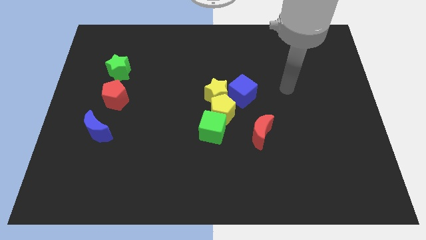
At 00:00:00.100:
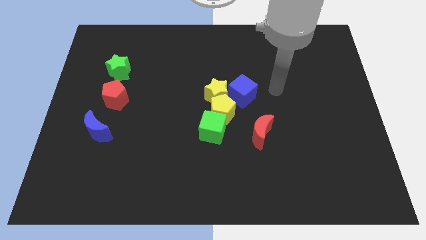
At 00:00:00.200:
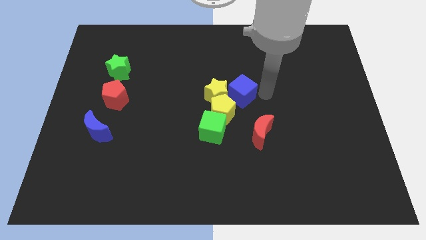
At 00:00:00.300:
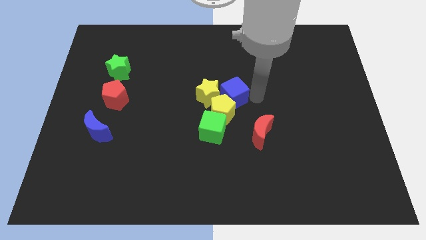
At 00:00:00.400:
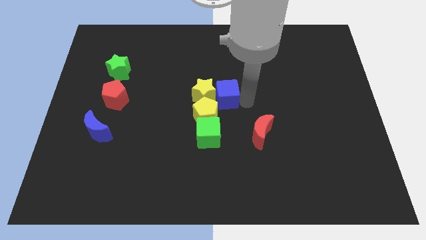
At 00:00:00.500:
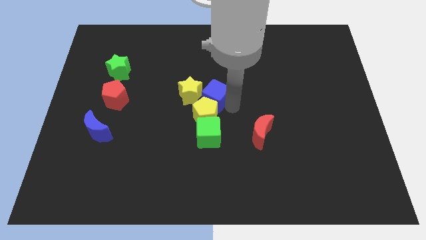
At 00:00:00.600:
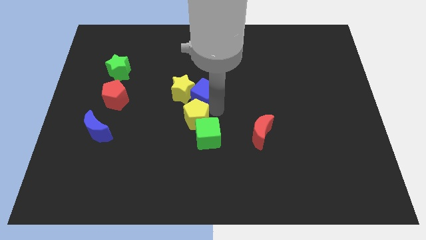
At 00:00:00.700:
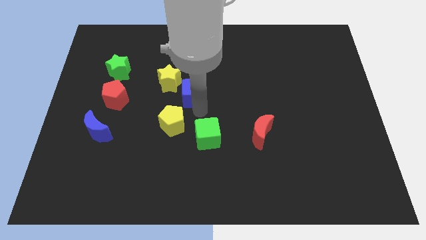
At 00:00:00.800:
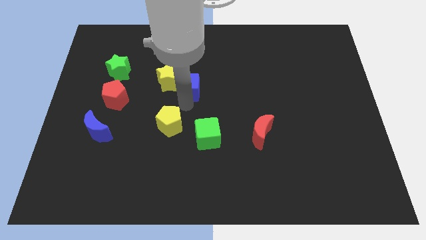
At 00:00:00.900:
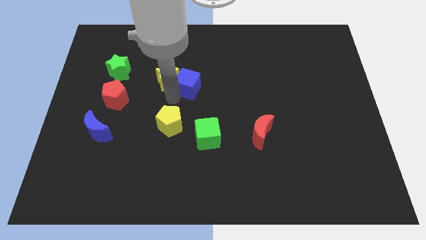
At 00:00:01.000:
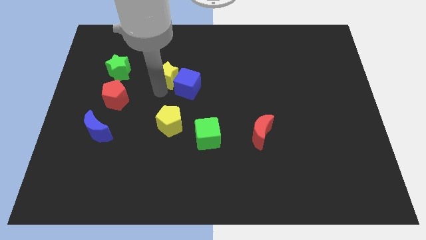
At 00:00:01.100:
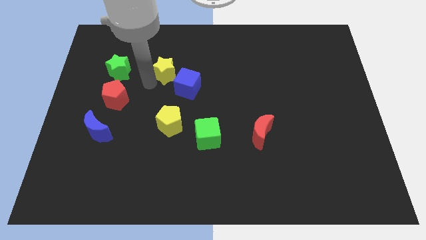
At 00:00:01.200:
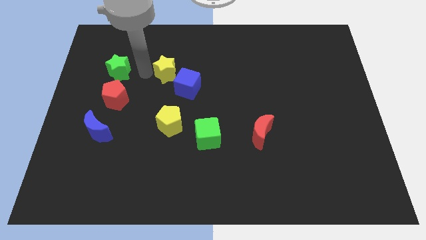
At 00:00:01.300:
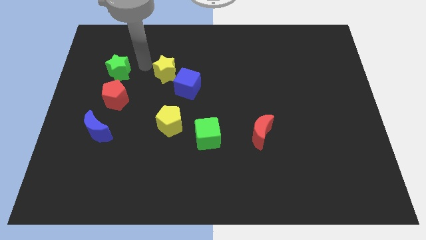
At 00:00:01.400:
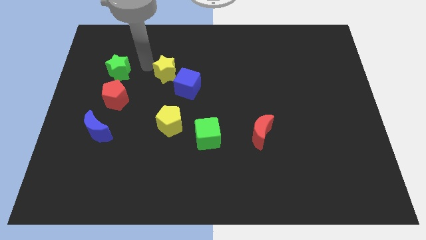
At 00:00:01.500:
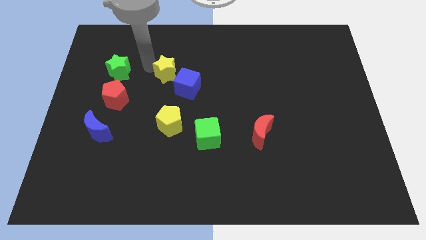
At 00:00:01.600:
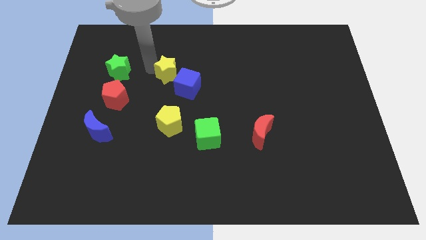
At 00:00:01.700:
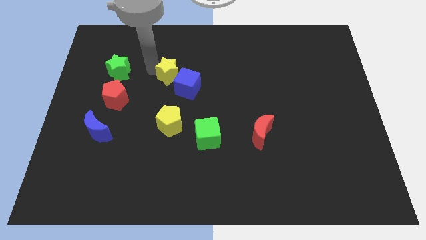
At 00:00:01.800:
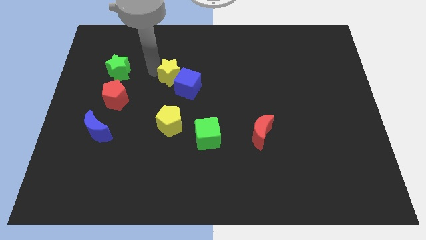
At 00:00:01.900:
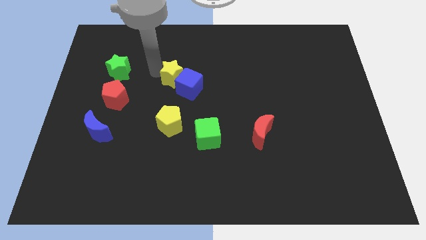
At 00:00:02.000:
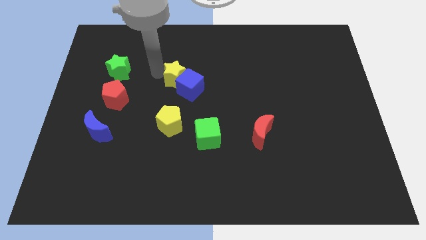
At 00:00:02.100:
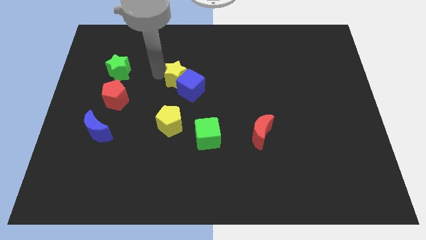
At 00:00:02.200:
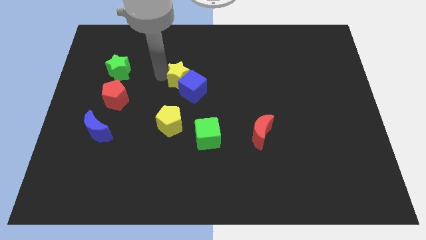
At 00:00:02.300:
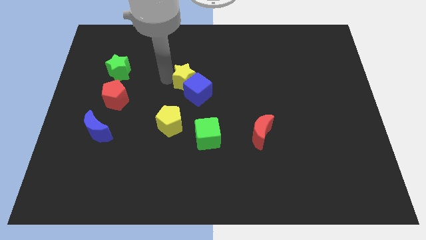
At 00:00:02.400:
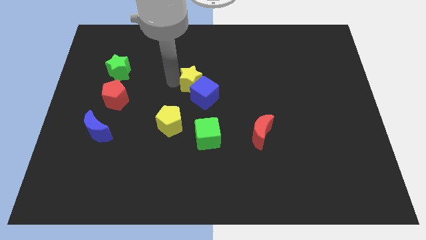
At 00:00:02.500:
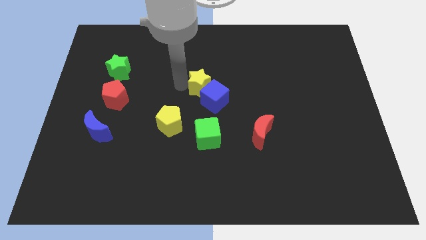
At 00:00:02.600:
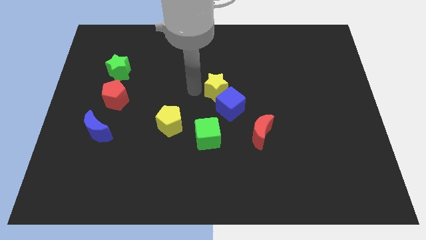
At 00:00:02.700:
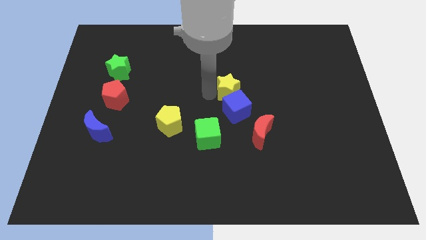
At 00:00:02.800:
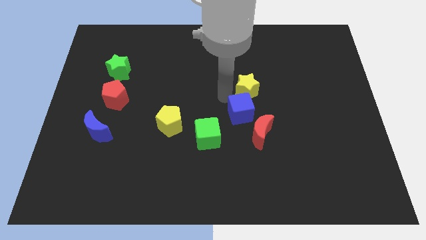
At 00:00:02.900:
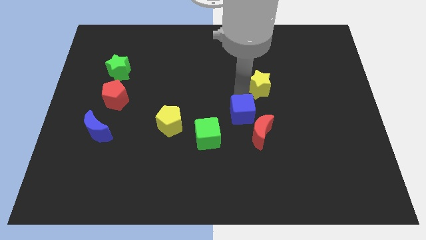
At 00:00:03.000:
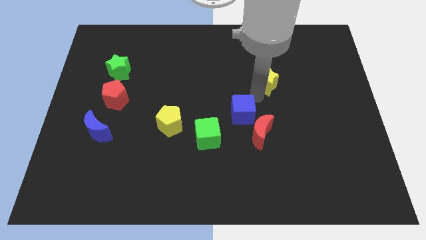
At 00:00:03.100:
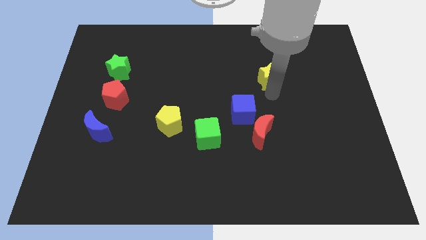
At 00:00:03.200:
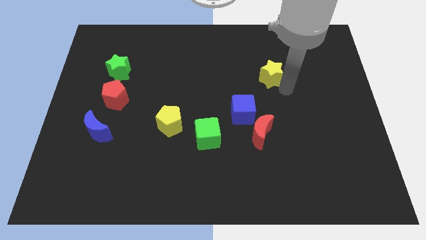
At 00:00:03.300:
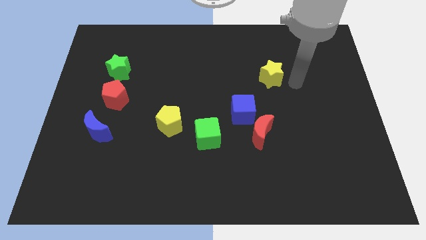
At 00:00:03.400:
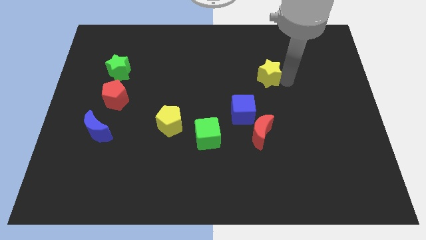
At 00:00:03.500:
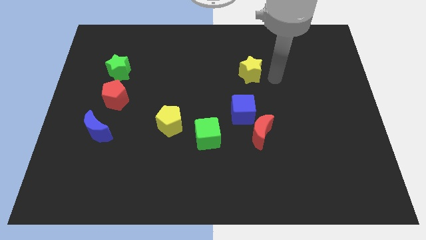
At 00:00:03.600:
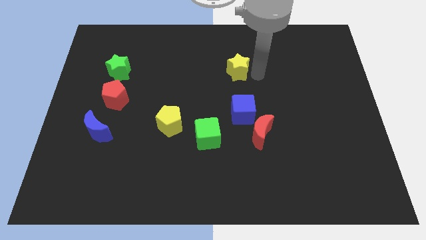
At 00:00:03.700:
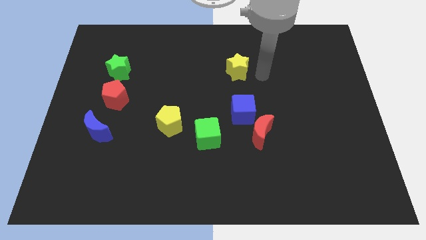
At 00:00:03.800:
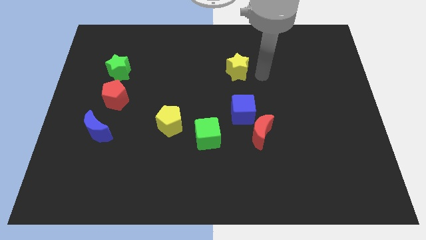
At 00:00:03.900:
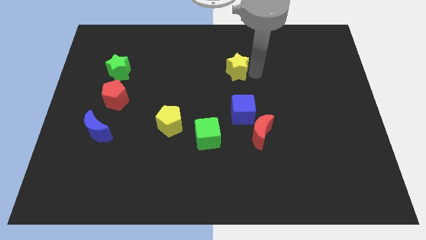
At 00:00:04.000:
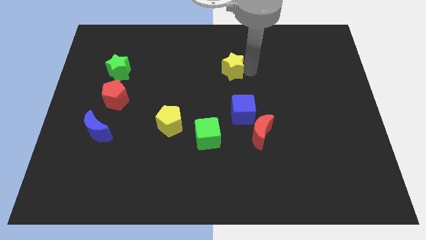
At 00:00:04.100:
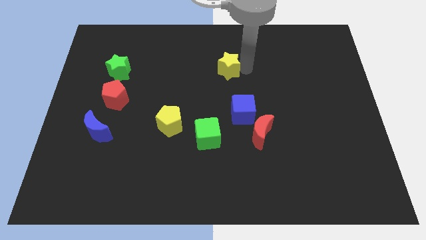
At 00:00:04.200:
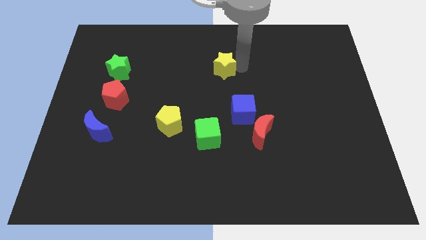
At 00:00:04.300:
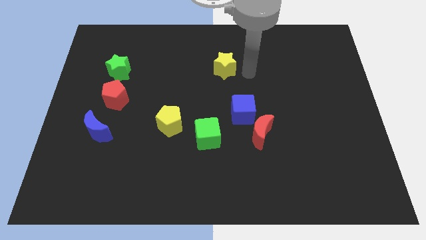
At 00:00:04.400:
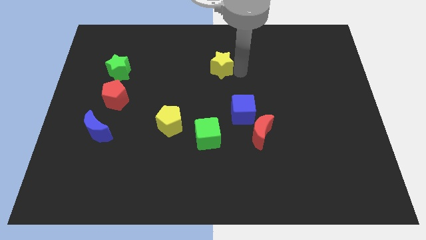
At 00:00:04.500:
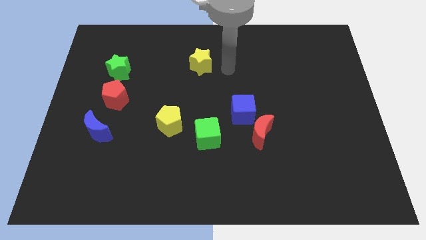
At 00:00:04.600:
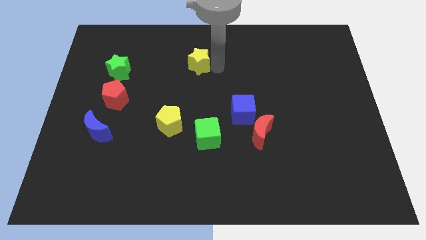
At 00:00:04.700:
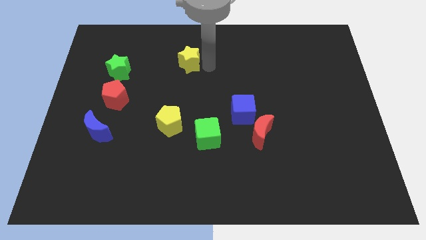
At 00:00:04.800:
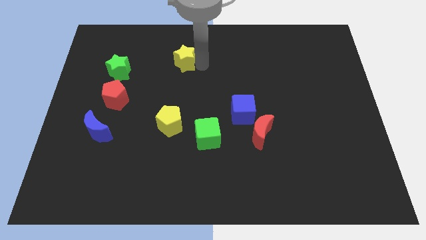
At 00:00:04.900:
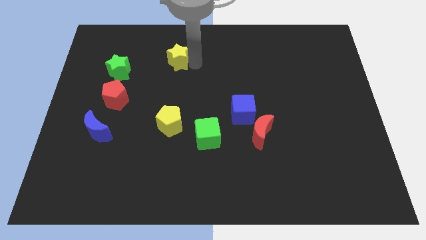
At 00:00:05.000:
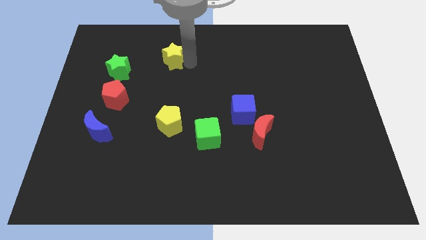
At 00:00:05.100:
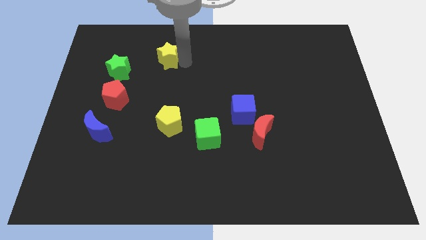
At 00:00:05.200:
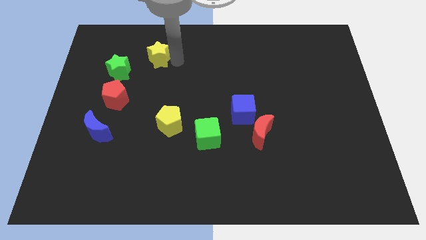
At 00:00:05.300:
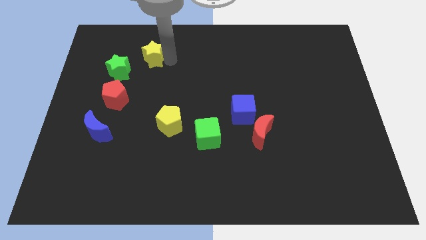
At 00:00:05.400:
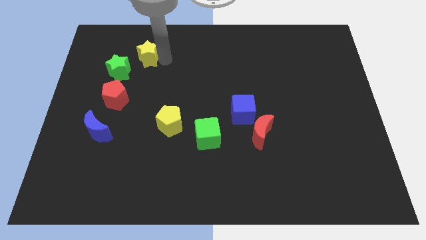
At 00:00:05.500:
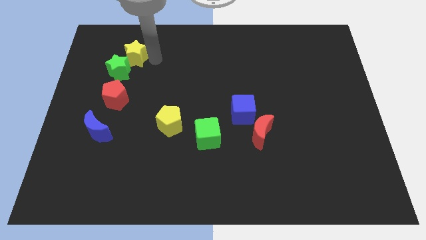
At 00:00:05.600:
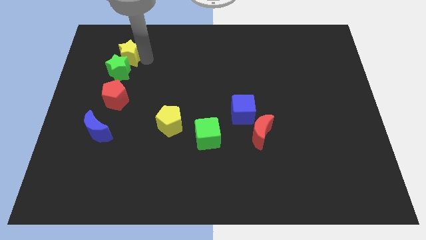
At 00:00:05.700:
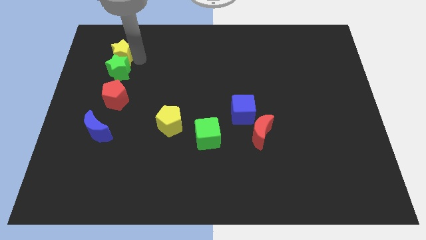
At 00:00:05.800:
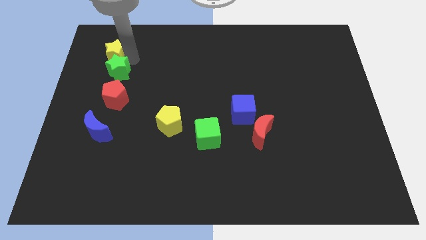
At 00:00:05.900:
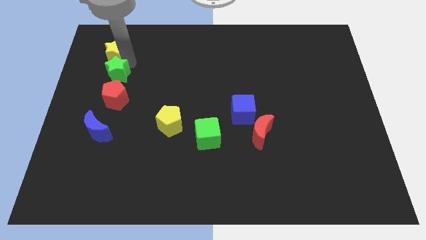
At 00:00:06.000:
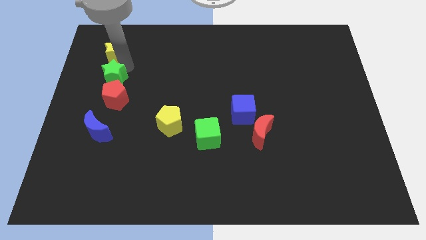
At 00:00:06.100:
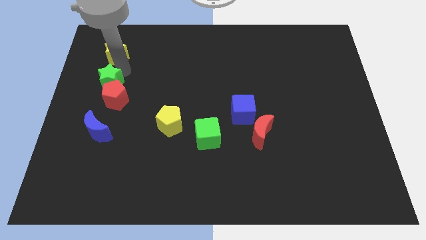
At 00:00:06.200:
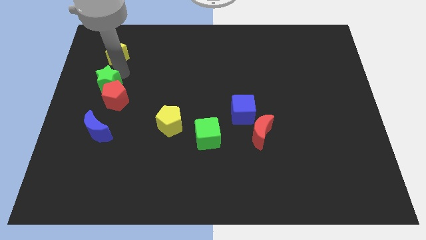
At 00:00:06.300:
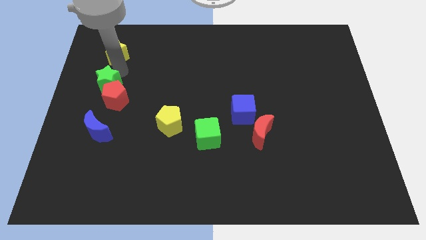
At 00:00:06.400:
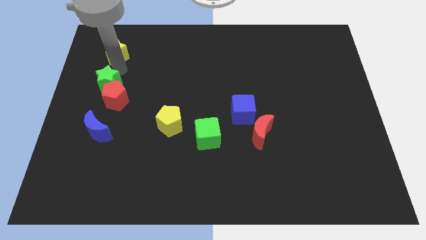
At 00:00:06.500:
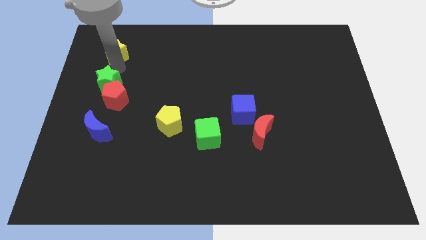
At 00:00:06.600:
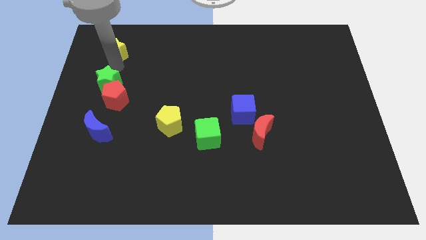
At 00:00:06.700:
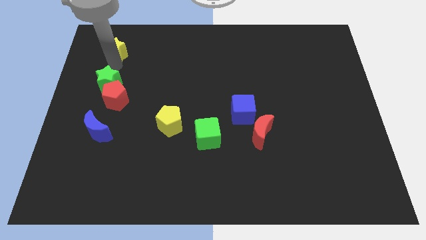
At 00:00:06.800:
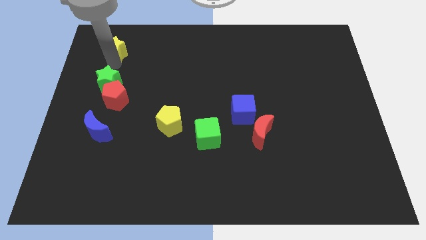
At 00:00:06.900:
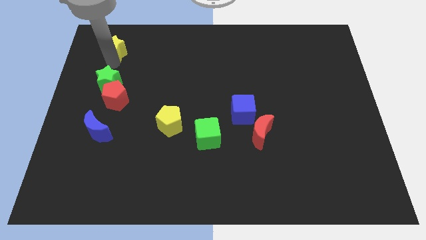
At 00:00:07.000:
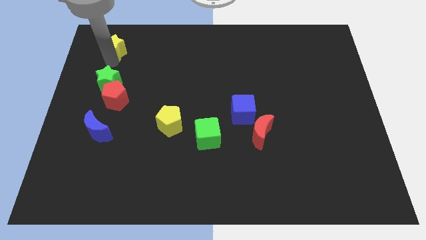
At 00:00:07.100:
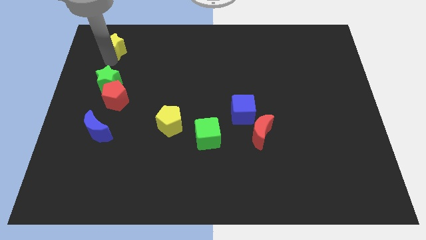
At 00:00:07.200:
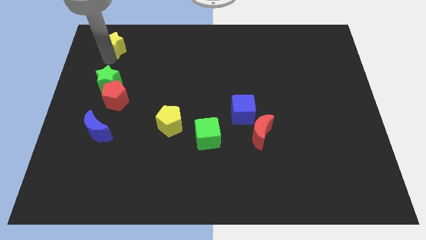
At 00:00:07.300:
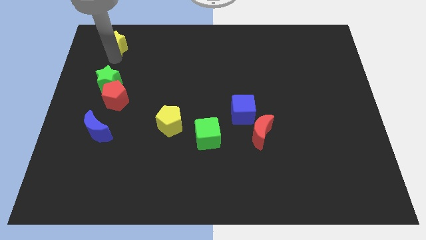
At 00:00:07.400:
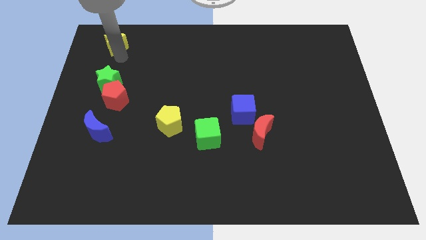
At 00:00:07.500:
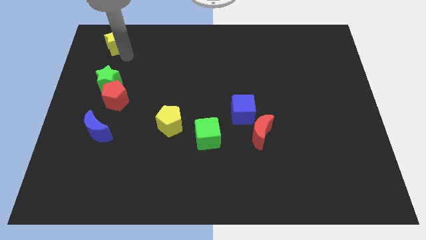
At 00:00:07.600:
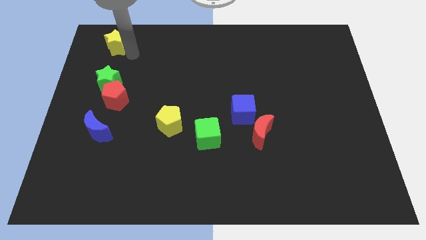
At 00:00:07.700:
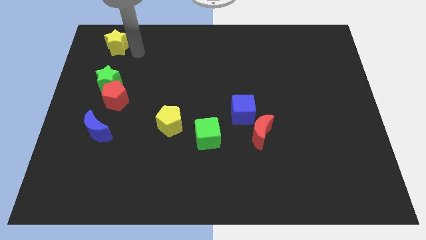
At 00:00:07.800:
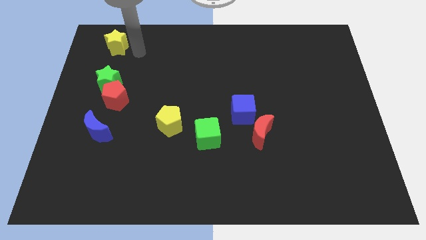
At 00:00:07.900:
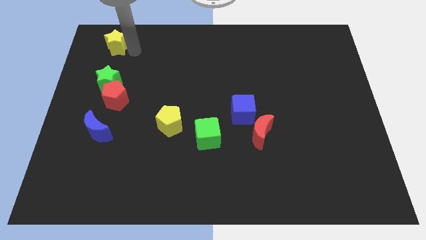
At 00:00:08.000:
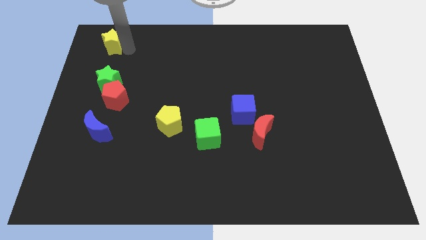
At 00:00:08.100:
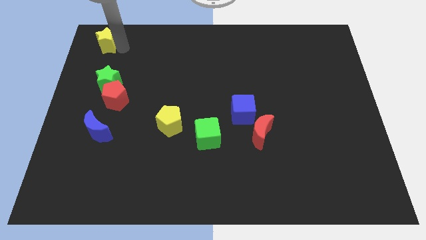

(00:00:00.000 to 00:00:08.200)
slide the yellow star to the top left of the board
